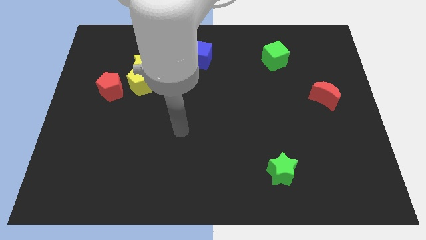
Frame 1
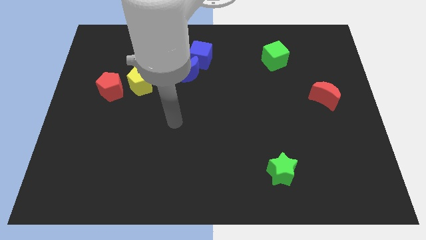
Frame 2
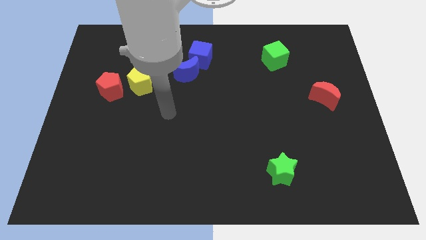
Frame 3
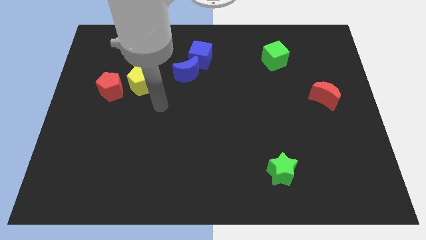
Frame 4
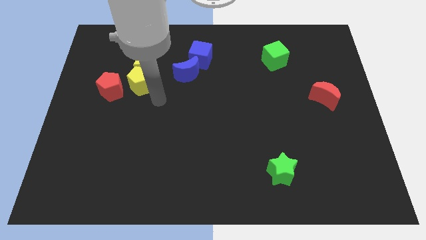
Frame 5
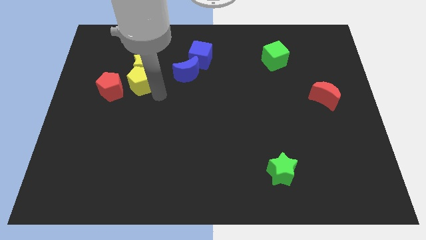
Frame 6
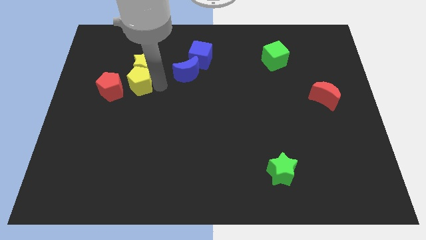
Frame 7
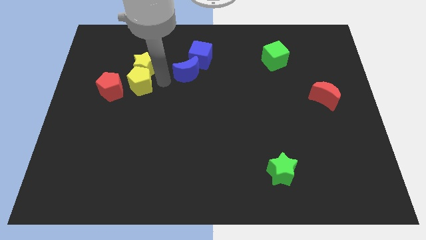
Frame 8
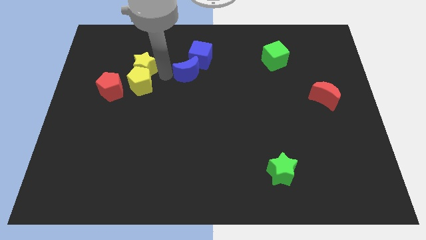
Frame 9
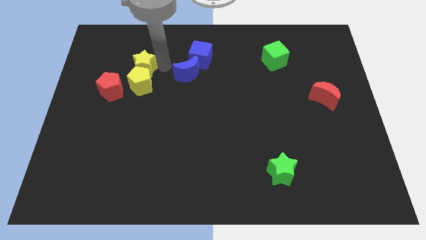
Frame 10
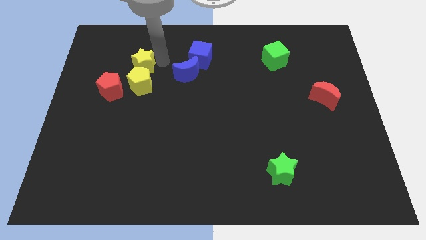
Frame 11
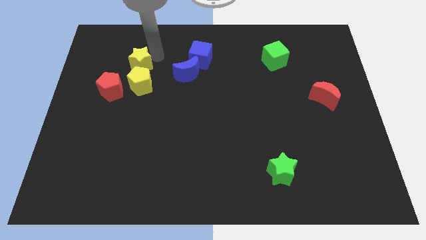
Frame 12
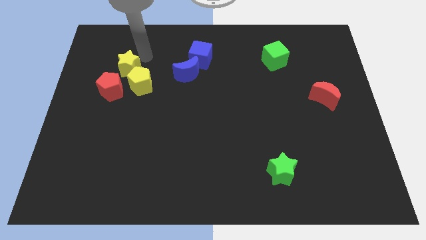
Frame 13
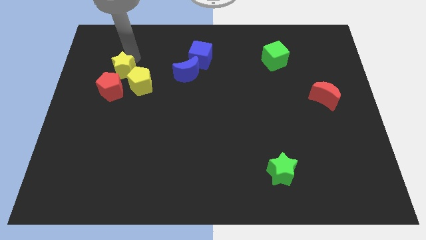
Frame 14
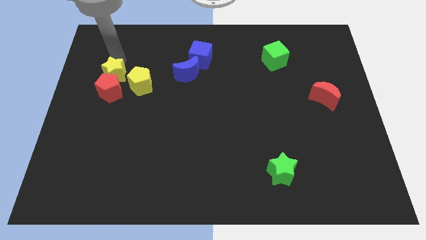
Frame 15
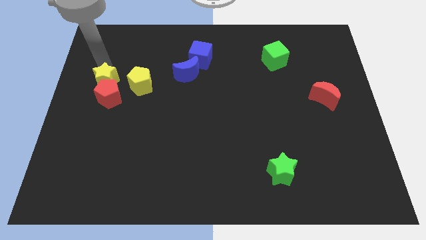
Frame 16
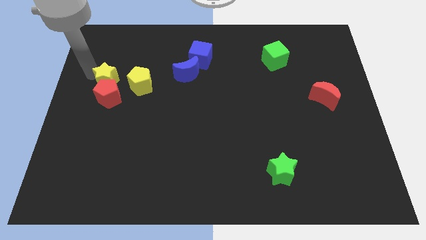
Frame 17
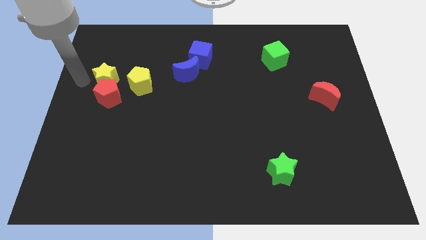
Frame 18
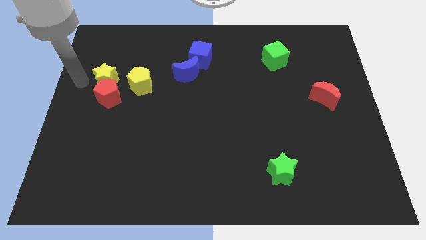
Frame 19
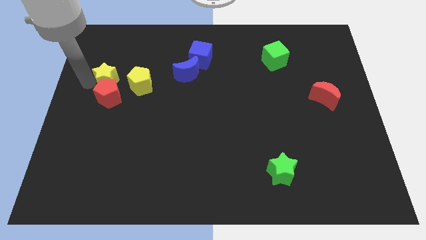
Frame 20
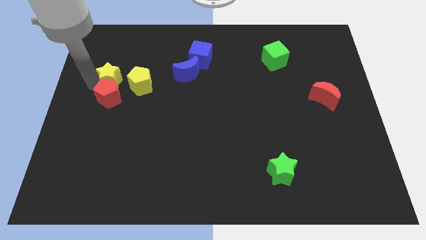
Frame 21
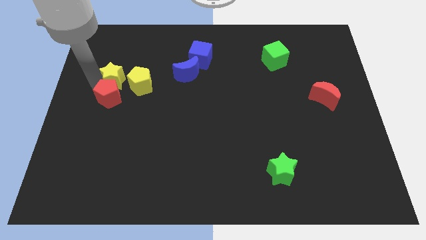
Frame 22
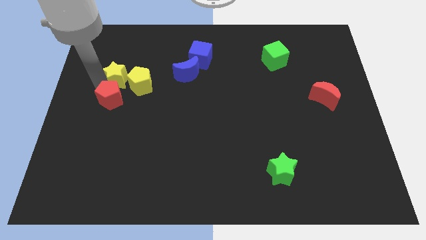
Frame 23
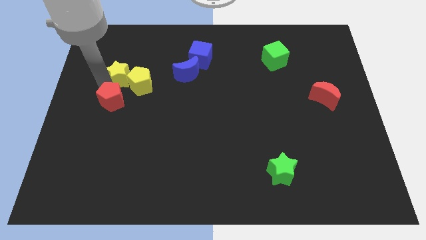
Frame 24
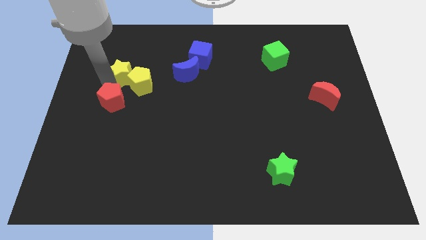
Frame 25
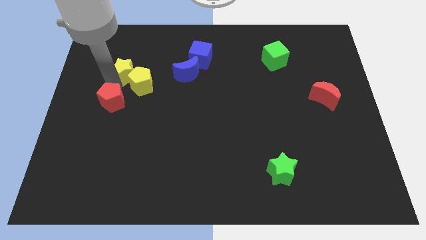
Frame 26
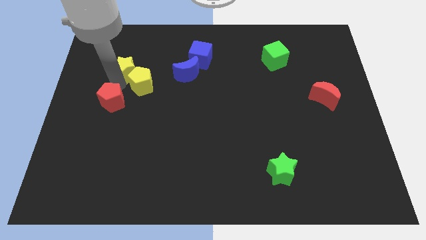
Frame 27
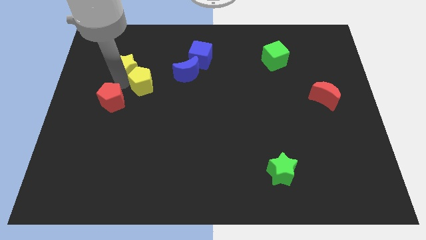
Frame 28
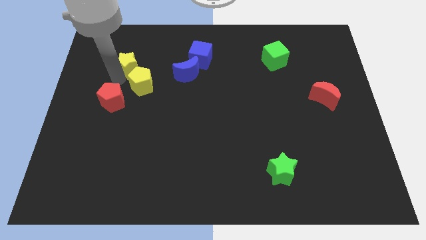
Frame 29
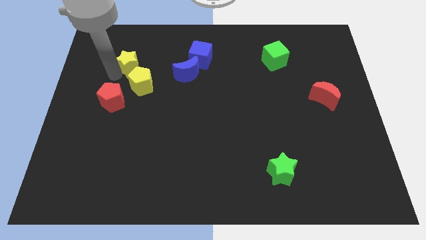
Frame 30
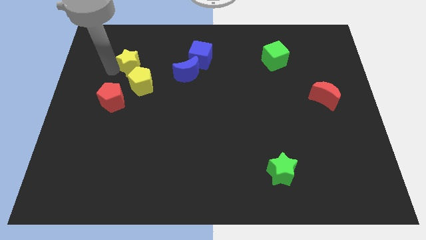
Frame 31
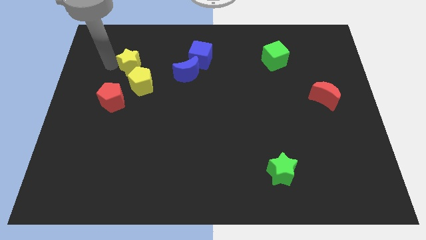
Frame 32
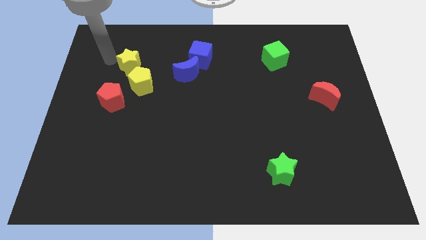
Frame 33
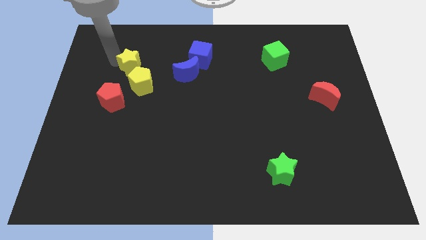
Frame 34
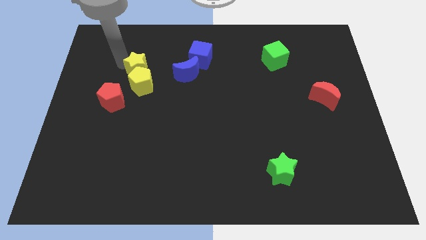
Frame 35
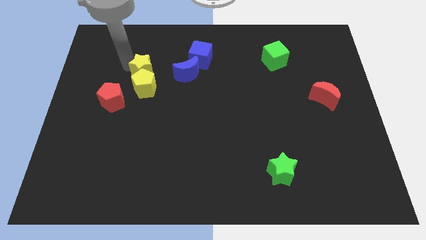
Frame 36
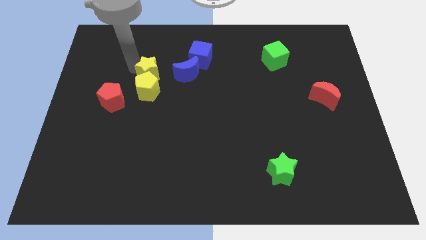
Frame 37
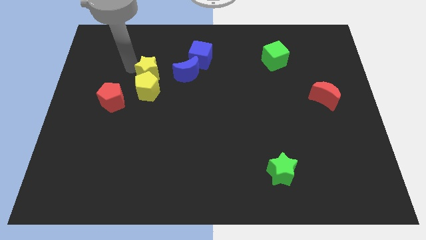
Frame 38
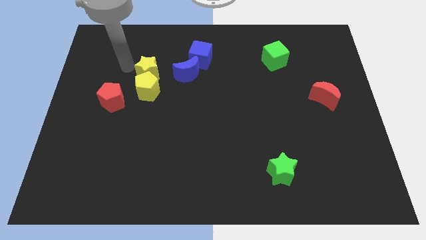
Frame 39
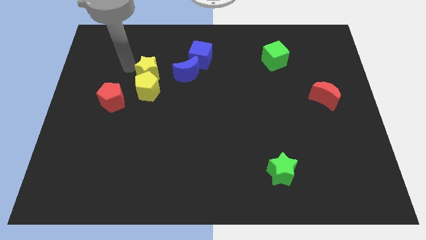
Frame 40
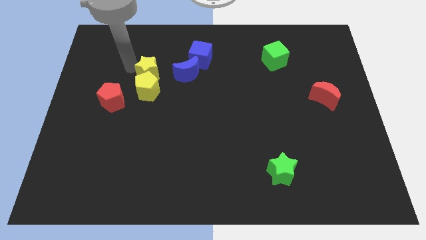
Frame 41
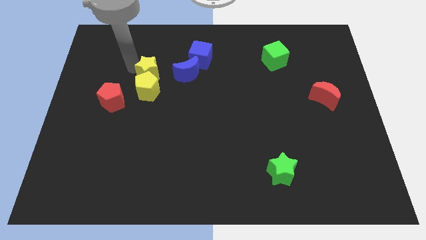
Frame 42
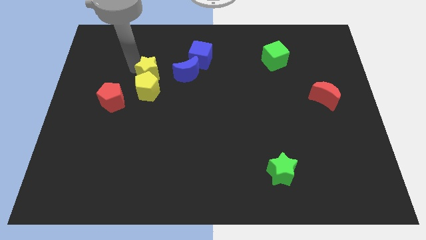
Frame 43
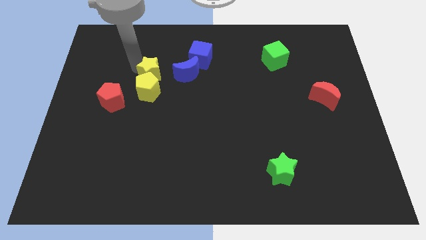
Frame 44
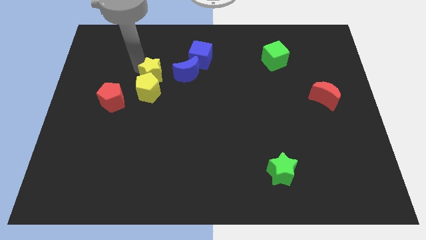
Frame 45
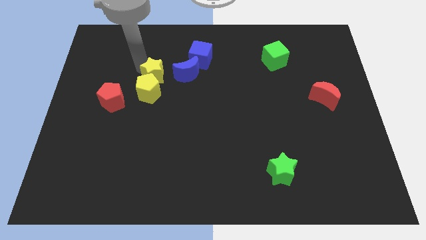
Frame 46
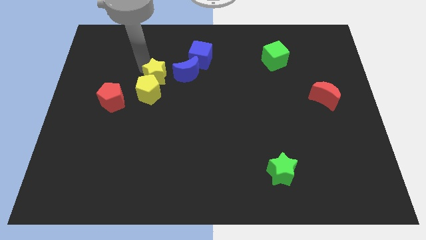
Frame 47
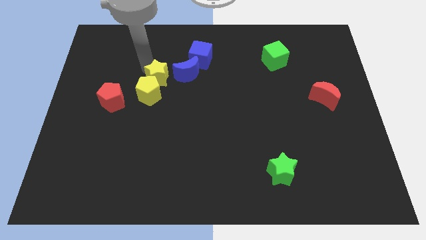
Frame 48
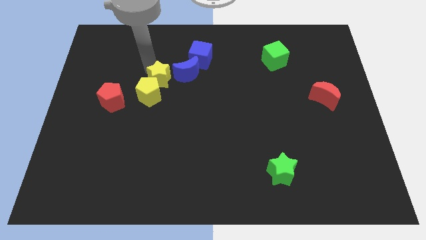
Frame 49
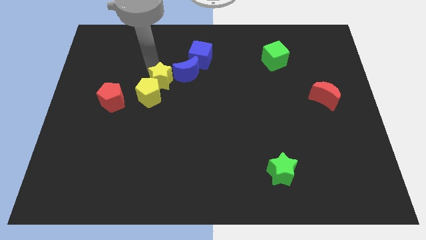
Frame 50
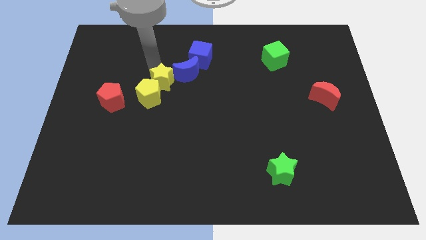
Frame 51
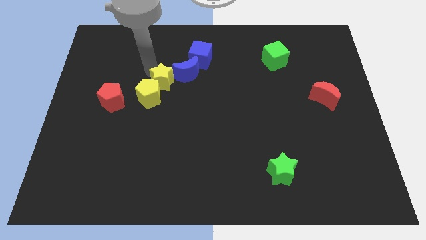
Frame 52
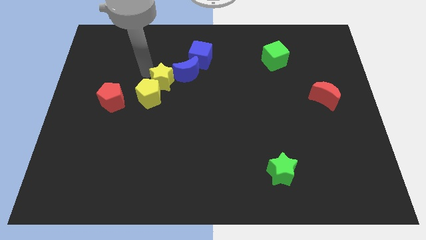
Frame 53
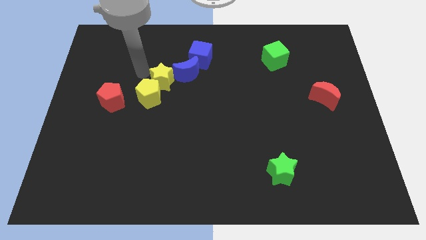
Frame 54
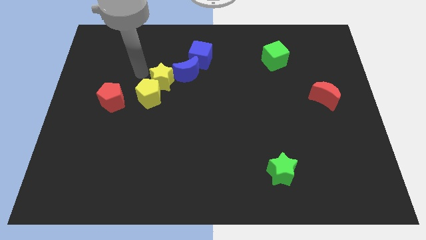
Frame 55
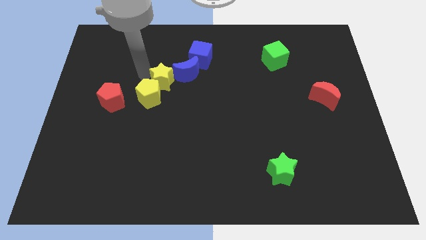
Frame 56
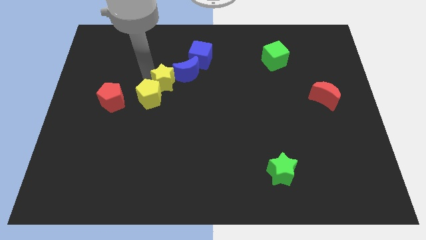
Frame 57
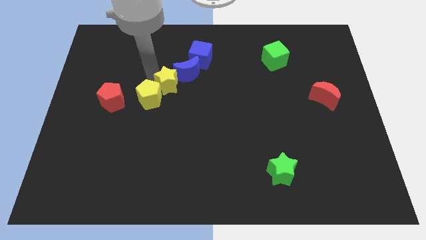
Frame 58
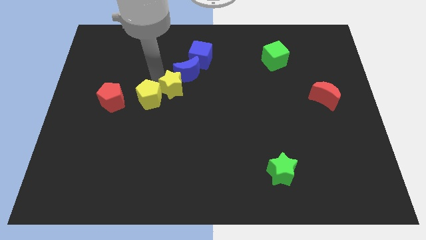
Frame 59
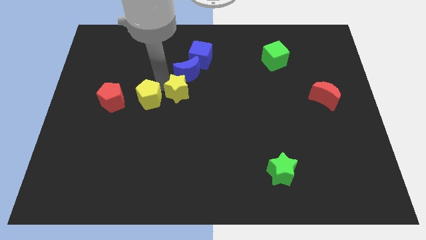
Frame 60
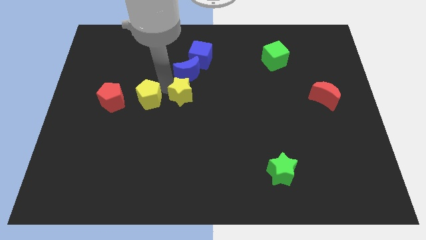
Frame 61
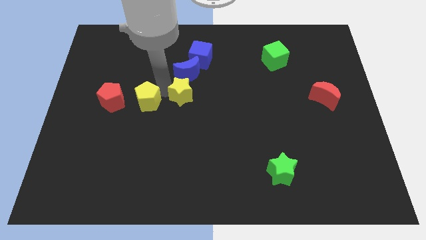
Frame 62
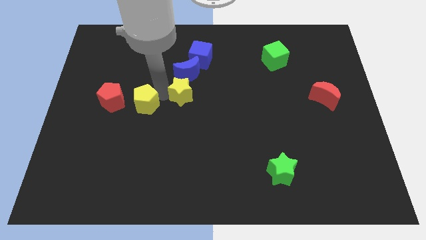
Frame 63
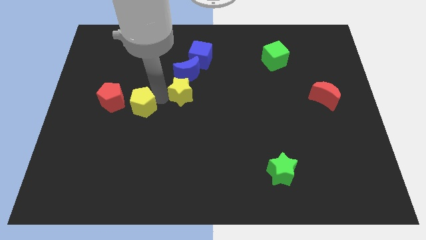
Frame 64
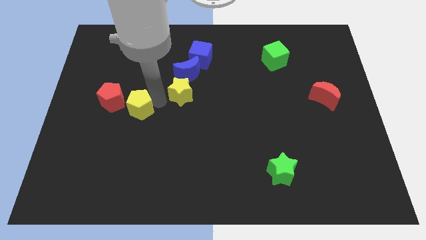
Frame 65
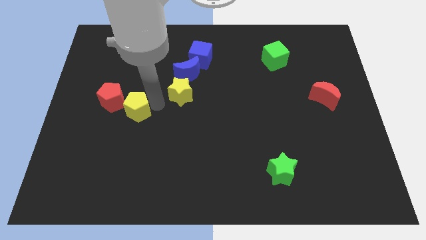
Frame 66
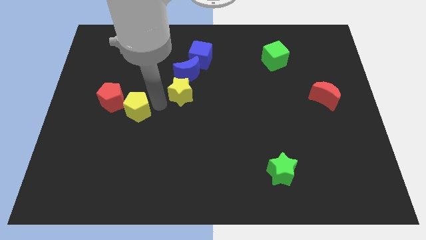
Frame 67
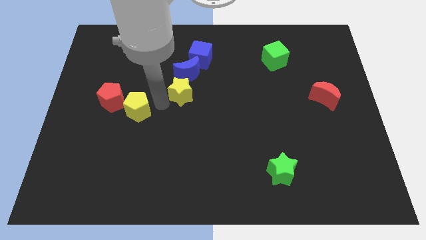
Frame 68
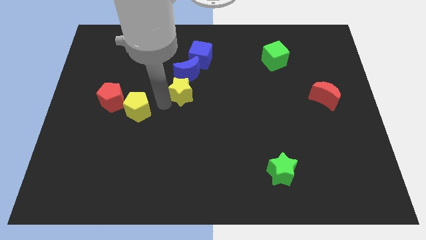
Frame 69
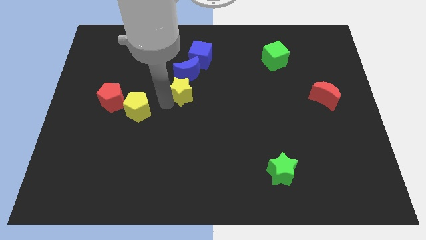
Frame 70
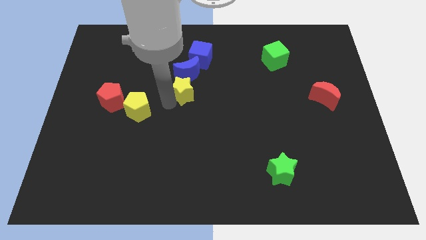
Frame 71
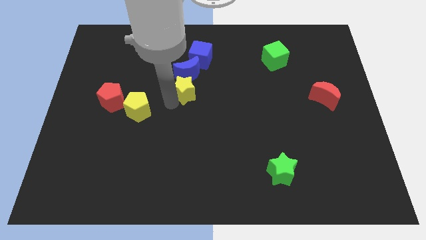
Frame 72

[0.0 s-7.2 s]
move the yellow star right somewhat

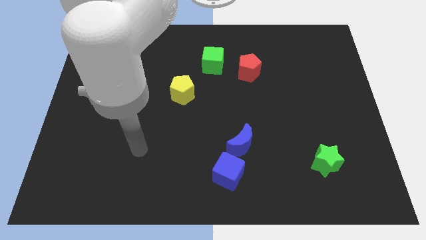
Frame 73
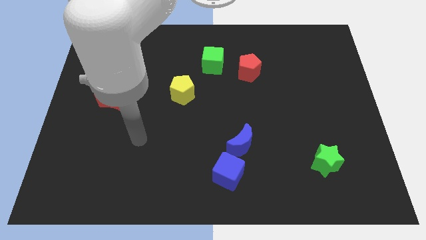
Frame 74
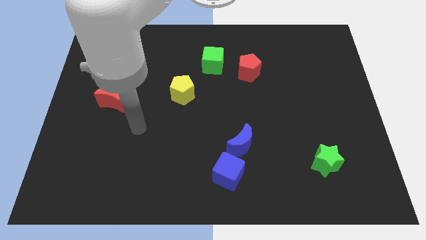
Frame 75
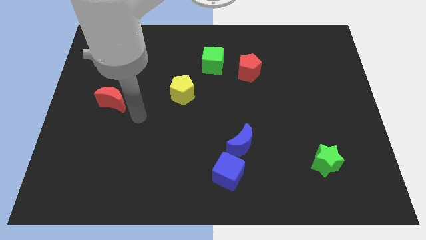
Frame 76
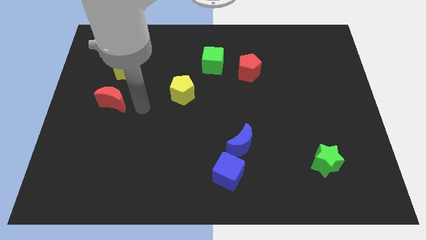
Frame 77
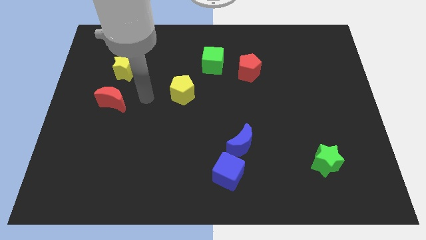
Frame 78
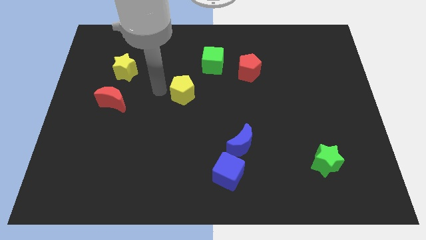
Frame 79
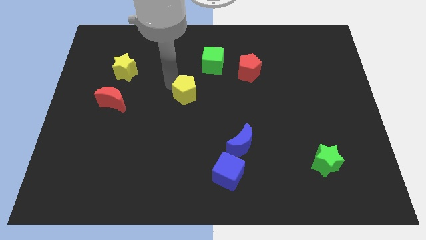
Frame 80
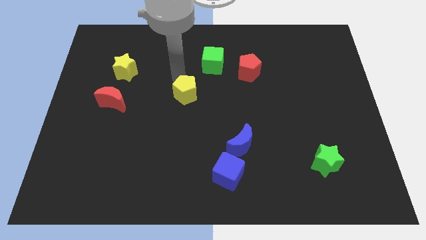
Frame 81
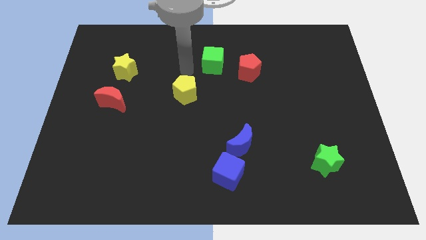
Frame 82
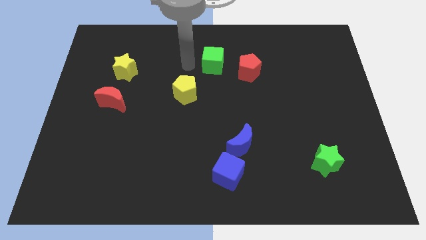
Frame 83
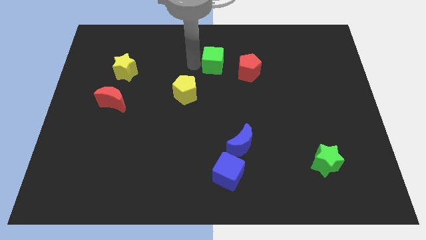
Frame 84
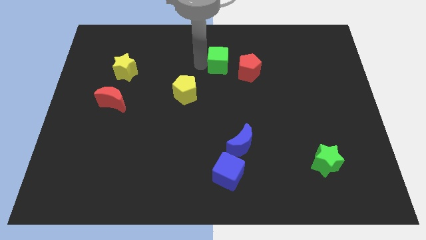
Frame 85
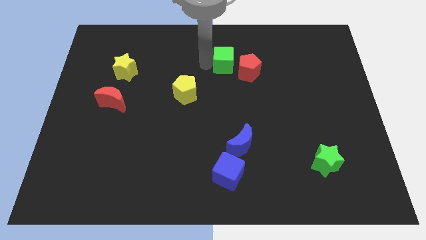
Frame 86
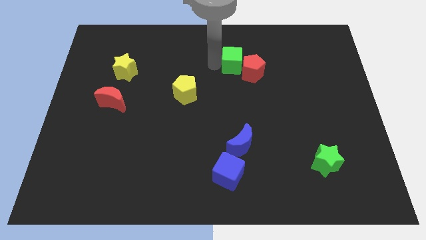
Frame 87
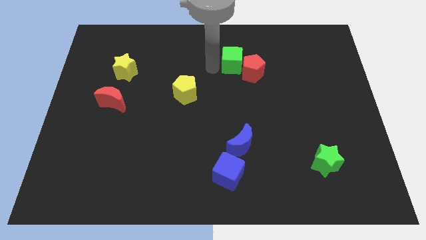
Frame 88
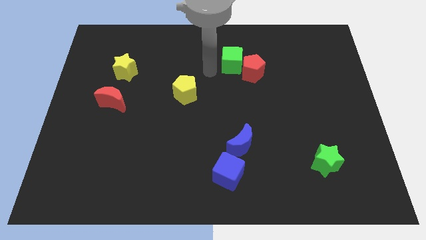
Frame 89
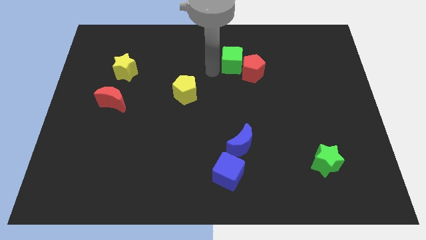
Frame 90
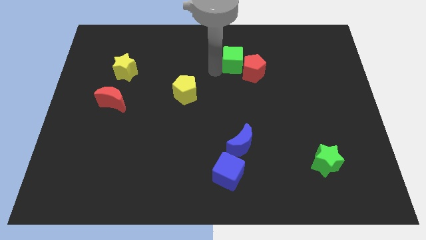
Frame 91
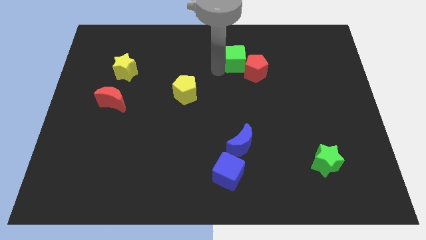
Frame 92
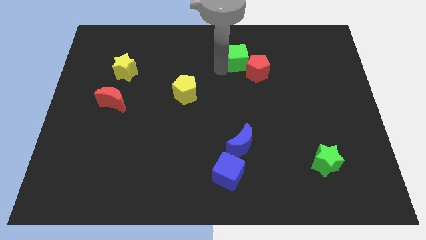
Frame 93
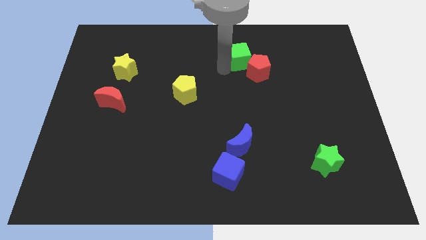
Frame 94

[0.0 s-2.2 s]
slide the green cube slightly right
